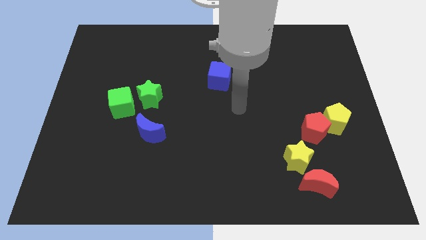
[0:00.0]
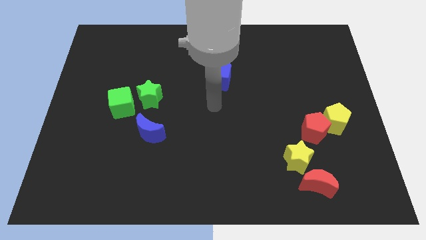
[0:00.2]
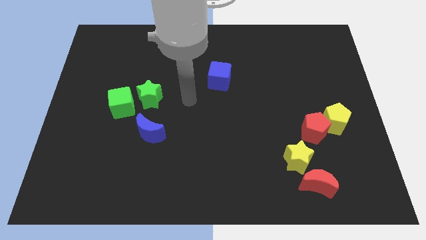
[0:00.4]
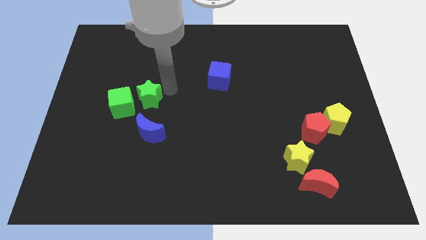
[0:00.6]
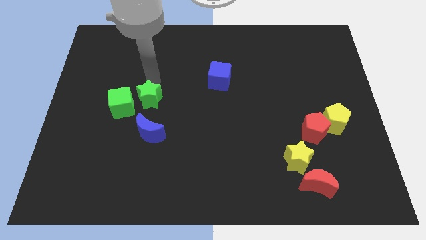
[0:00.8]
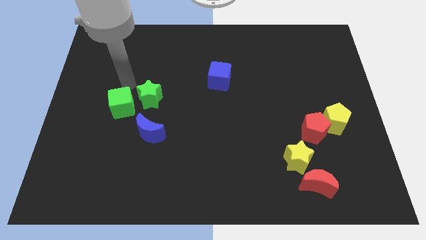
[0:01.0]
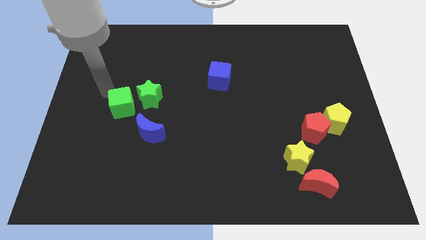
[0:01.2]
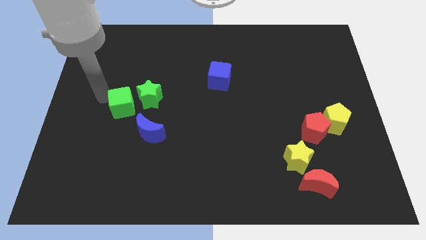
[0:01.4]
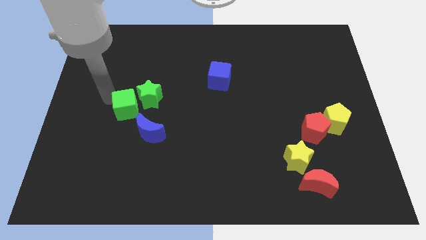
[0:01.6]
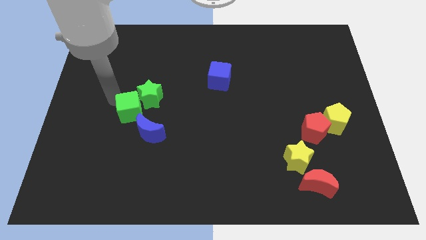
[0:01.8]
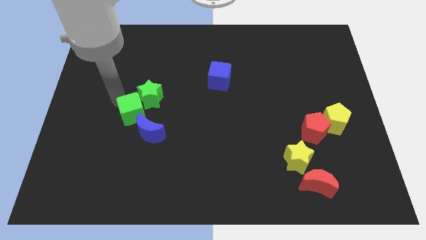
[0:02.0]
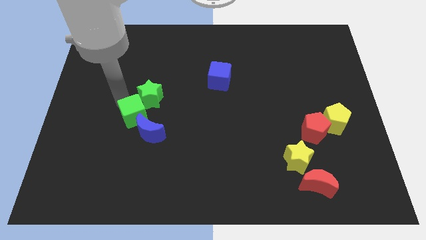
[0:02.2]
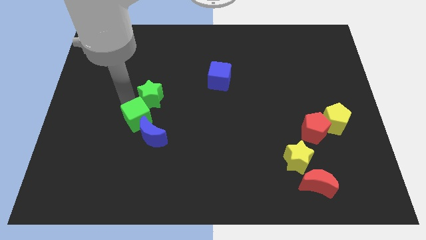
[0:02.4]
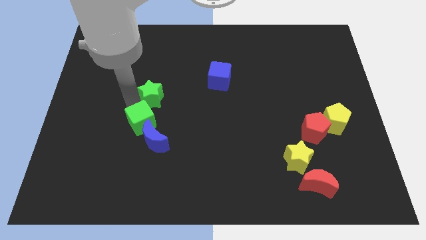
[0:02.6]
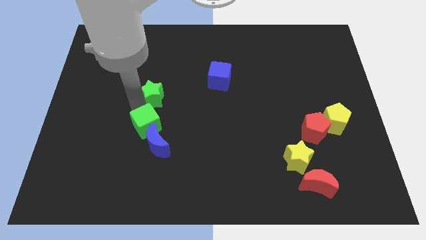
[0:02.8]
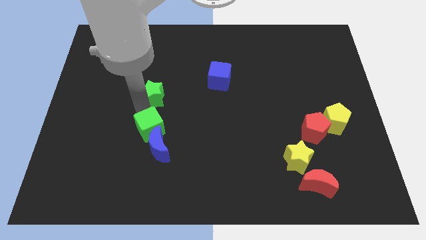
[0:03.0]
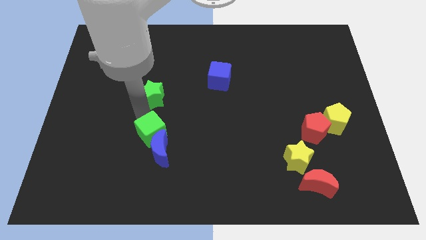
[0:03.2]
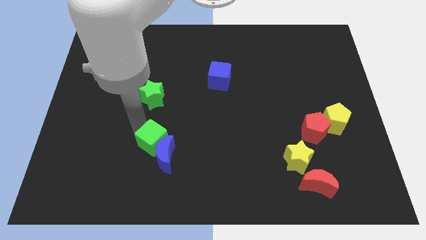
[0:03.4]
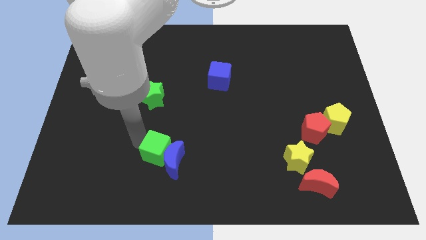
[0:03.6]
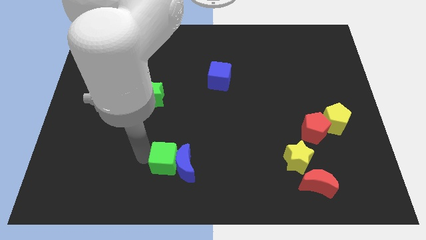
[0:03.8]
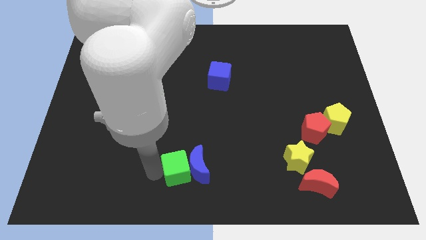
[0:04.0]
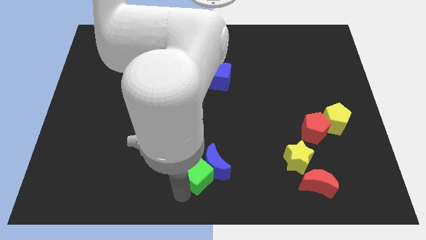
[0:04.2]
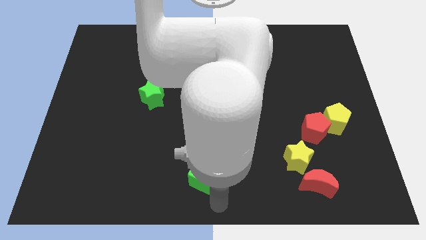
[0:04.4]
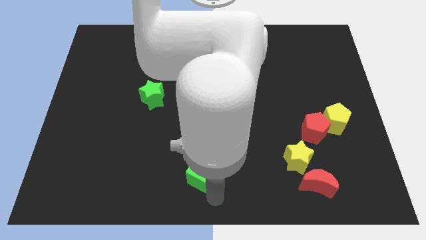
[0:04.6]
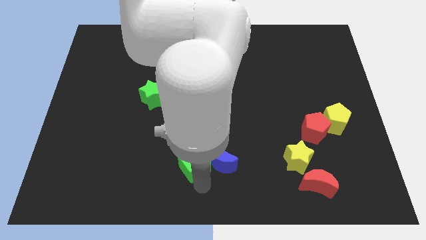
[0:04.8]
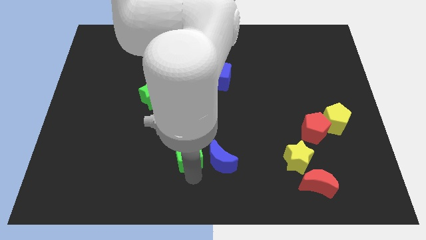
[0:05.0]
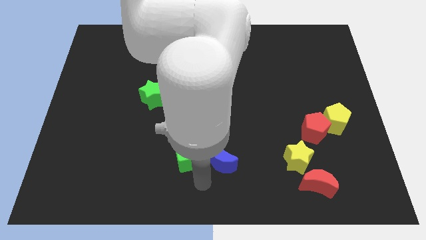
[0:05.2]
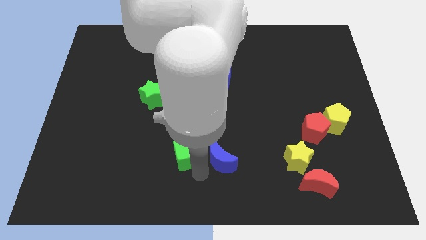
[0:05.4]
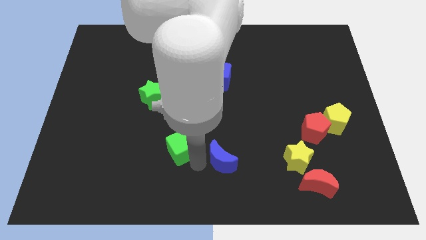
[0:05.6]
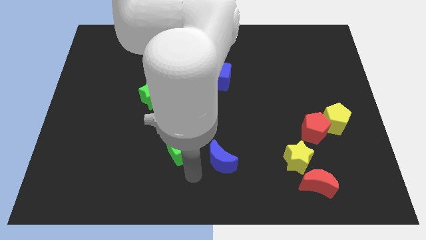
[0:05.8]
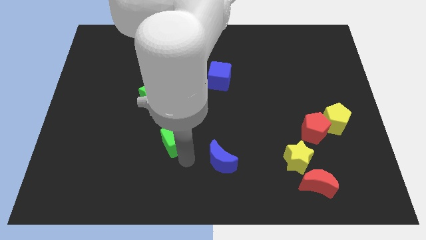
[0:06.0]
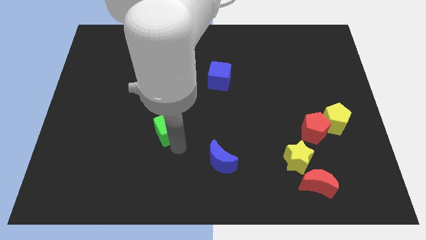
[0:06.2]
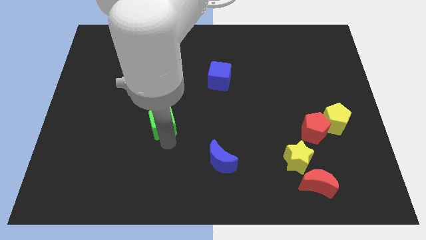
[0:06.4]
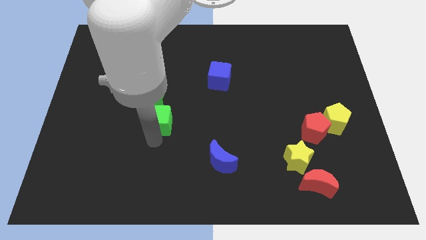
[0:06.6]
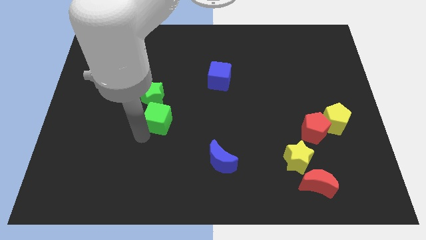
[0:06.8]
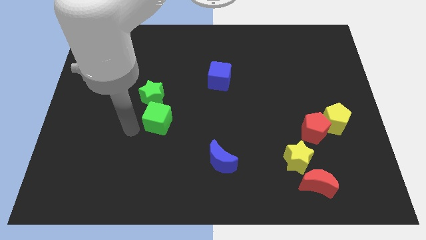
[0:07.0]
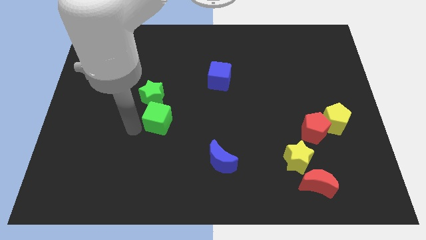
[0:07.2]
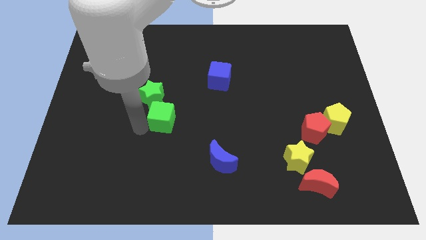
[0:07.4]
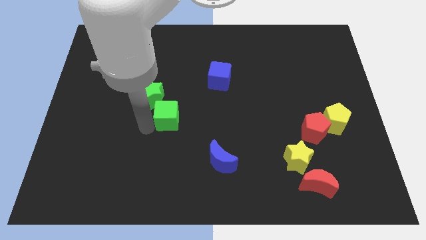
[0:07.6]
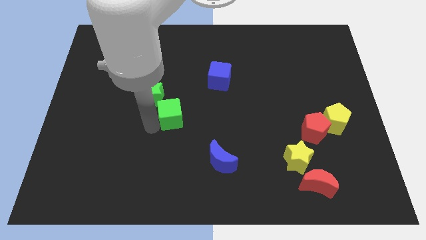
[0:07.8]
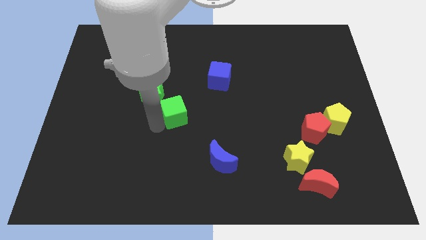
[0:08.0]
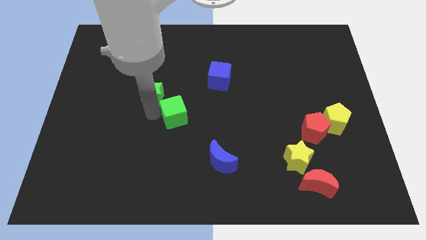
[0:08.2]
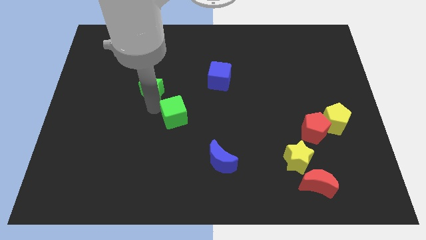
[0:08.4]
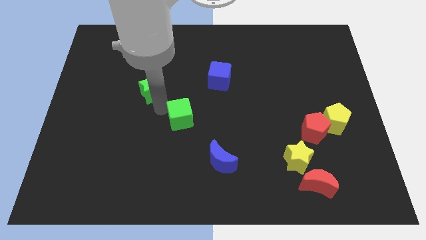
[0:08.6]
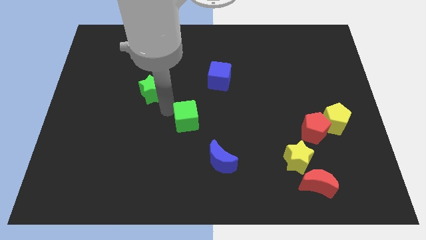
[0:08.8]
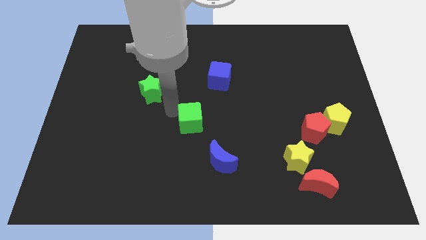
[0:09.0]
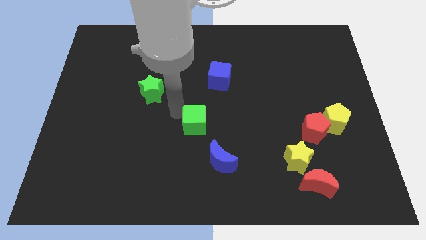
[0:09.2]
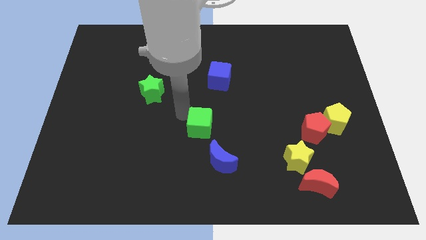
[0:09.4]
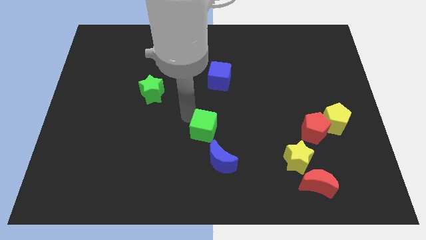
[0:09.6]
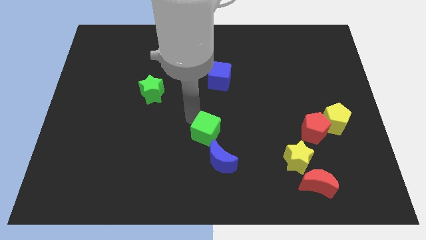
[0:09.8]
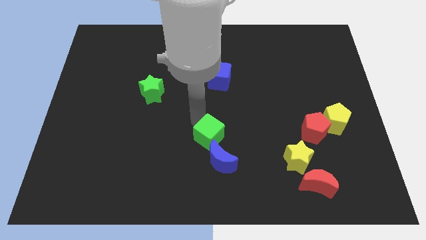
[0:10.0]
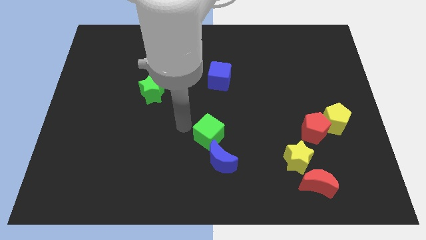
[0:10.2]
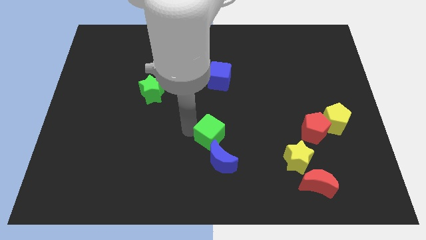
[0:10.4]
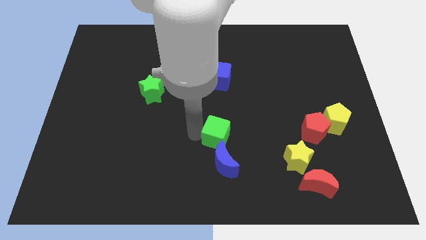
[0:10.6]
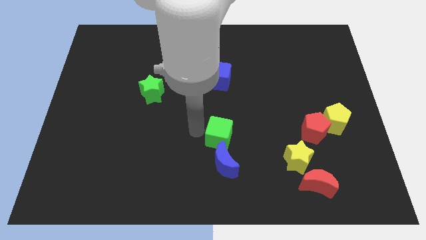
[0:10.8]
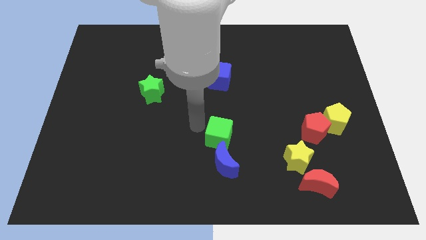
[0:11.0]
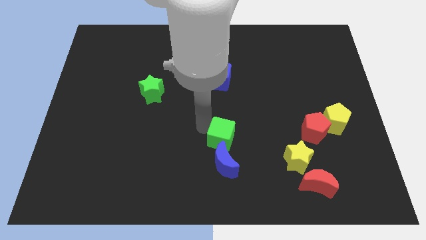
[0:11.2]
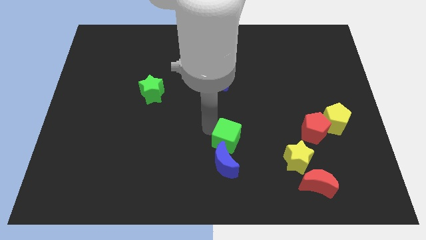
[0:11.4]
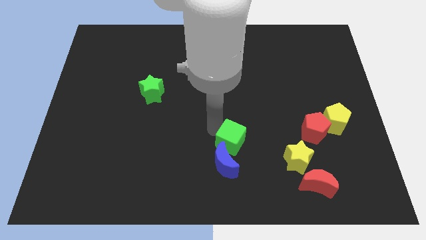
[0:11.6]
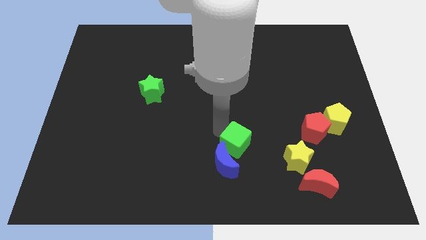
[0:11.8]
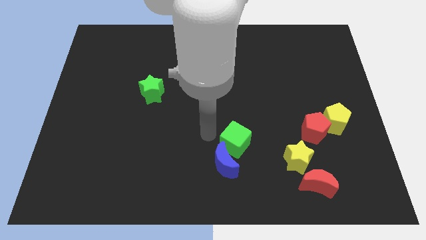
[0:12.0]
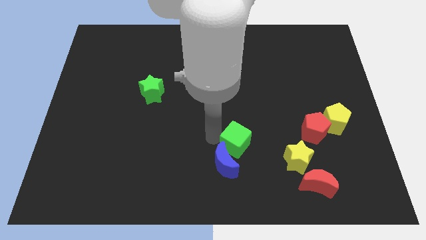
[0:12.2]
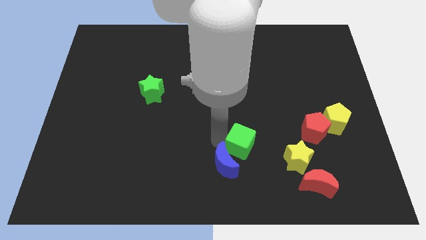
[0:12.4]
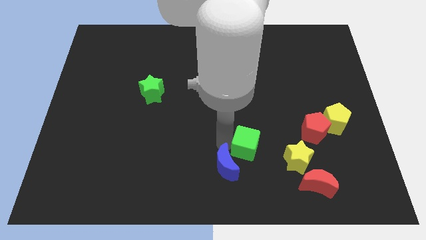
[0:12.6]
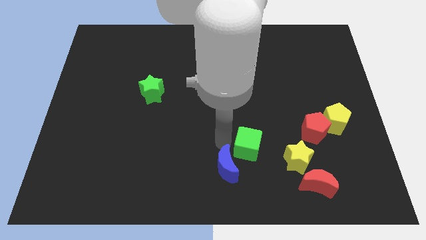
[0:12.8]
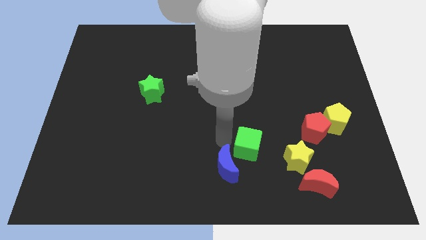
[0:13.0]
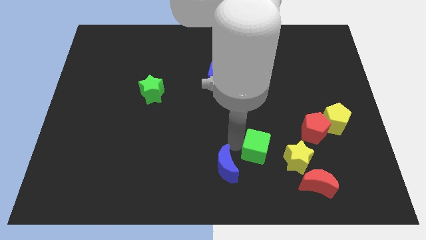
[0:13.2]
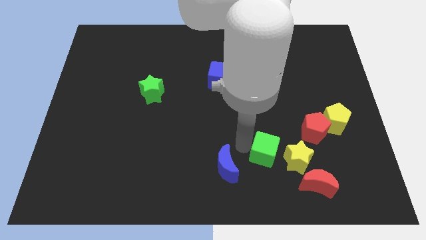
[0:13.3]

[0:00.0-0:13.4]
put the green cube diagonally up and to the left of the red moon

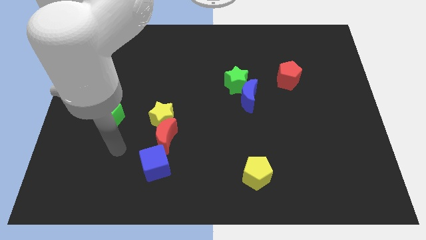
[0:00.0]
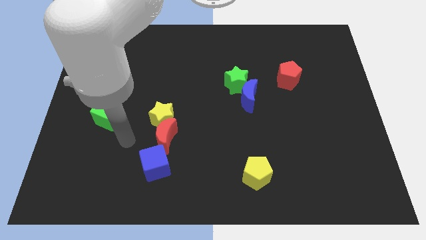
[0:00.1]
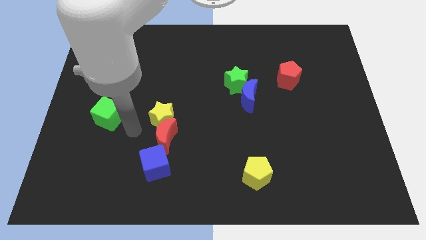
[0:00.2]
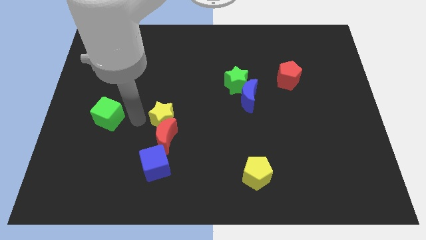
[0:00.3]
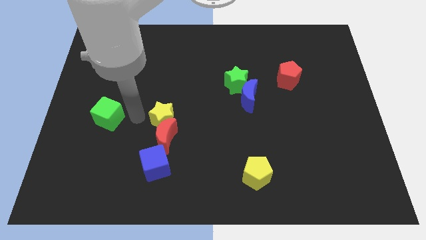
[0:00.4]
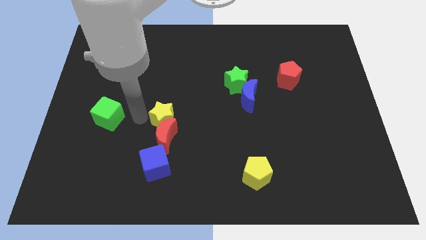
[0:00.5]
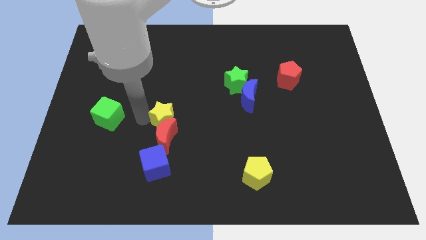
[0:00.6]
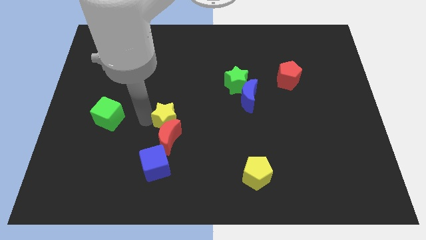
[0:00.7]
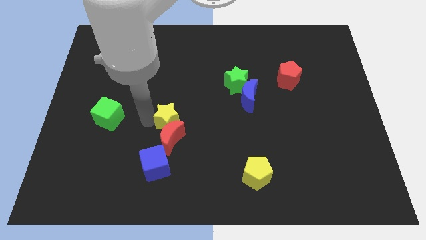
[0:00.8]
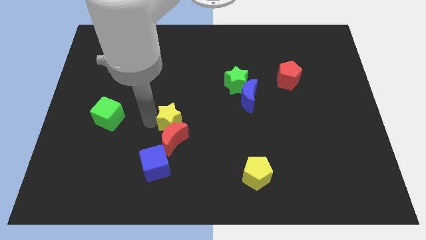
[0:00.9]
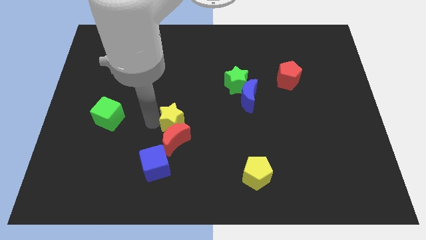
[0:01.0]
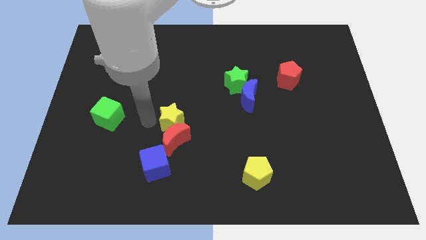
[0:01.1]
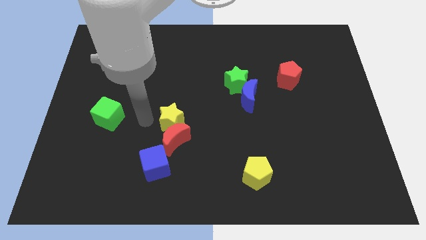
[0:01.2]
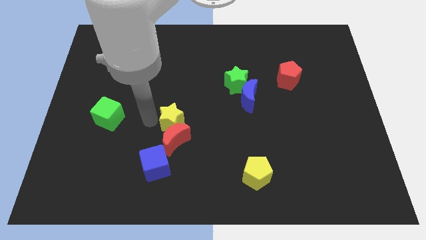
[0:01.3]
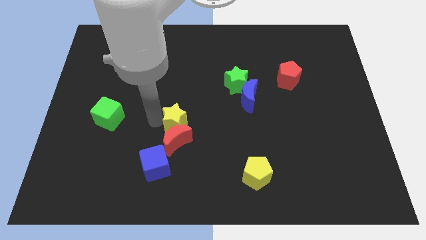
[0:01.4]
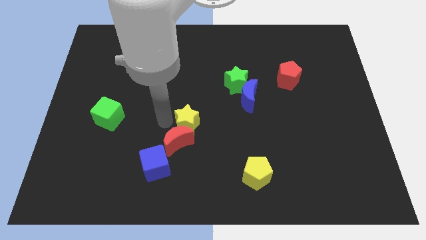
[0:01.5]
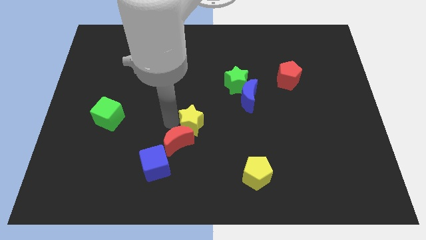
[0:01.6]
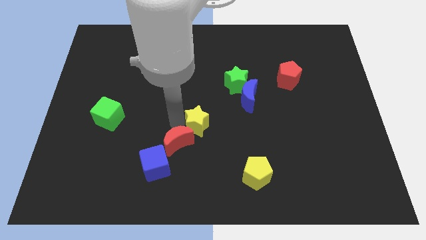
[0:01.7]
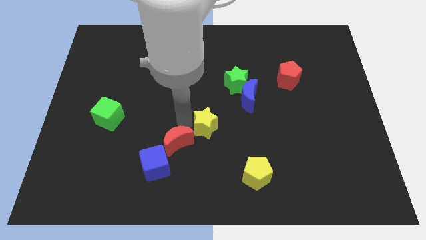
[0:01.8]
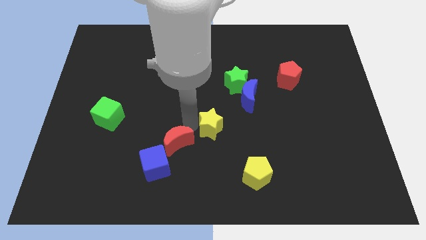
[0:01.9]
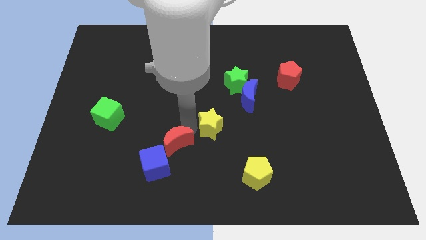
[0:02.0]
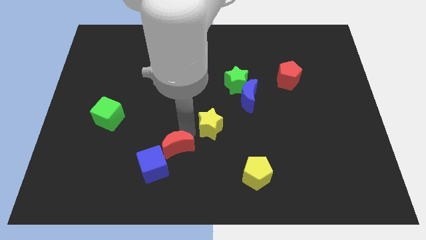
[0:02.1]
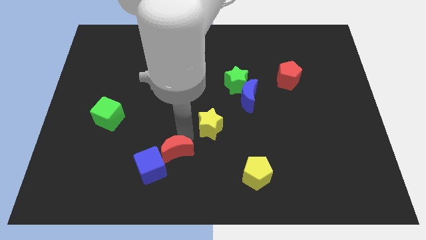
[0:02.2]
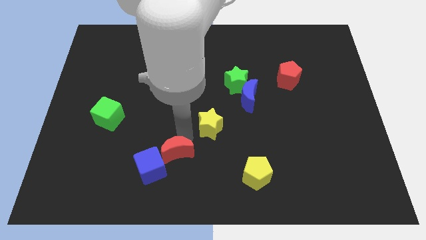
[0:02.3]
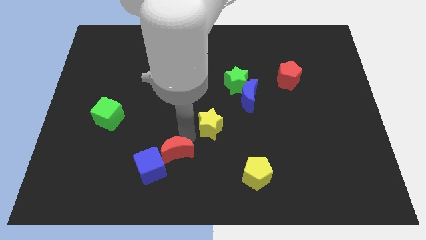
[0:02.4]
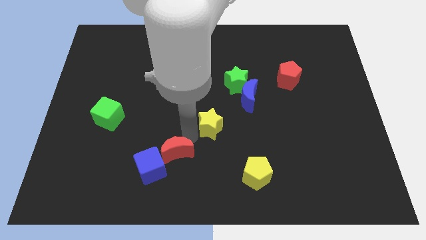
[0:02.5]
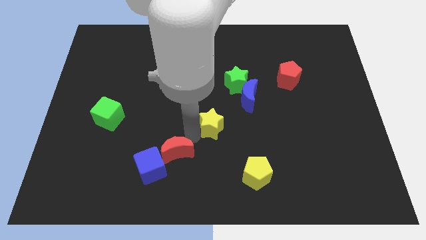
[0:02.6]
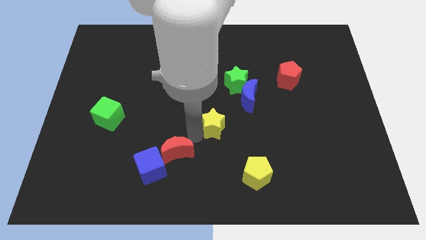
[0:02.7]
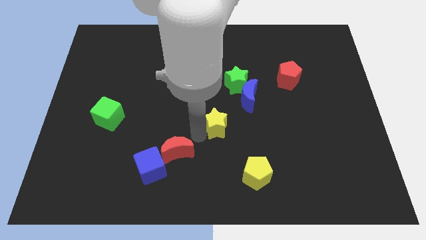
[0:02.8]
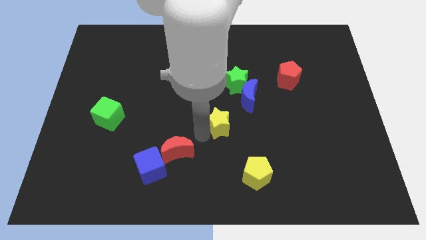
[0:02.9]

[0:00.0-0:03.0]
slide the yellow star below the green star
